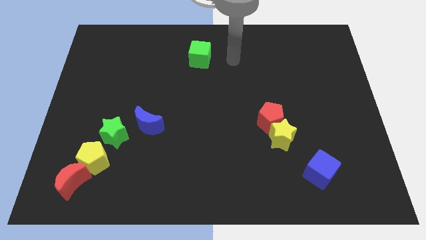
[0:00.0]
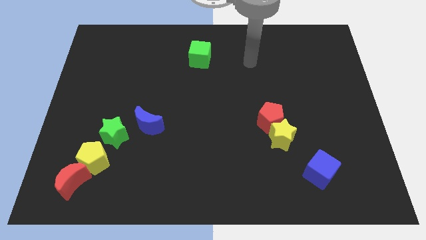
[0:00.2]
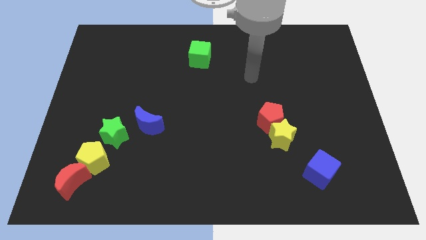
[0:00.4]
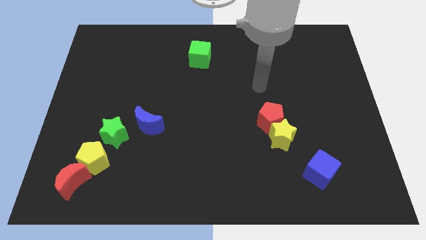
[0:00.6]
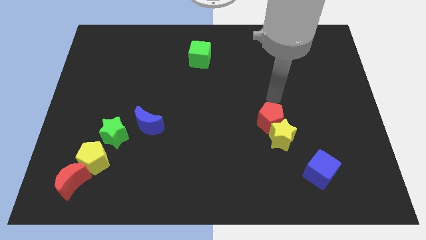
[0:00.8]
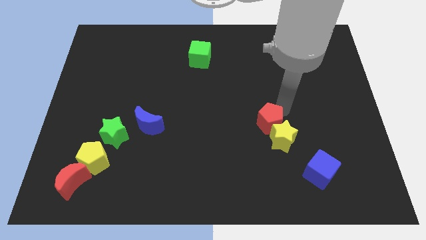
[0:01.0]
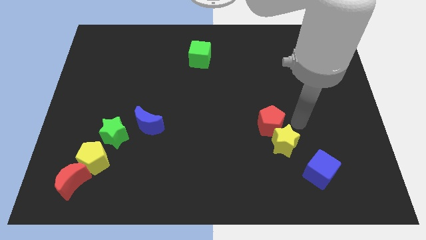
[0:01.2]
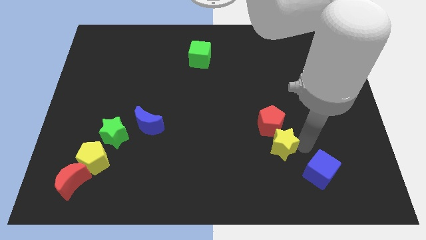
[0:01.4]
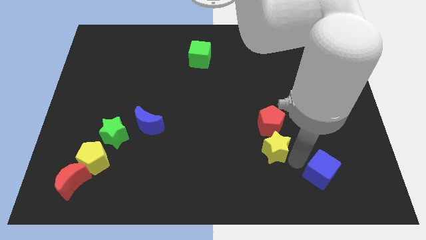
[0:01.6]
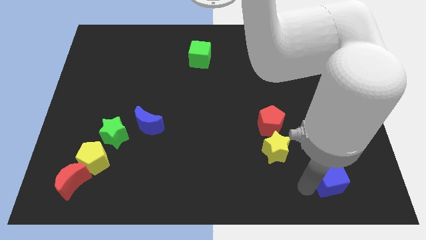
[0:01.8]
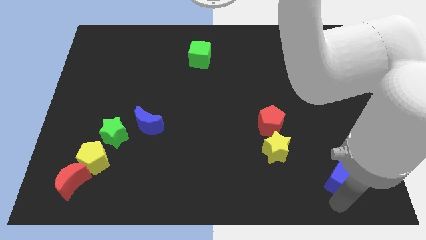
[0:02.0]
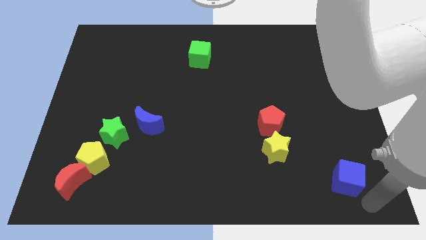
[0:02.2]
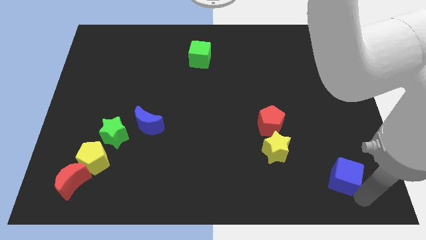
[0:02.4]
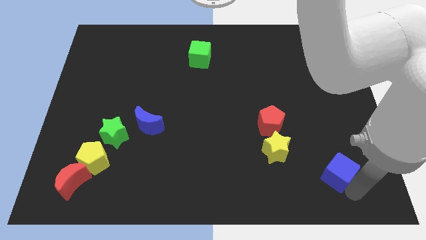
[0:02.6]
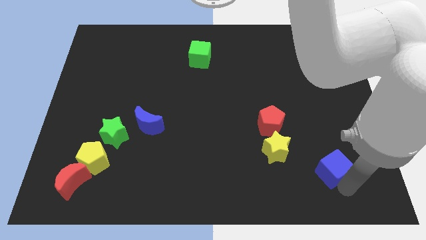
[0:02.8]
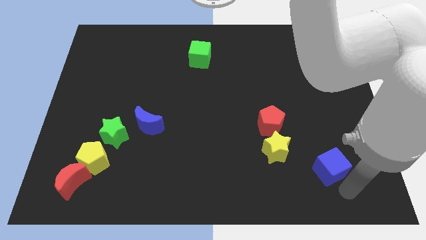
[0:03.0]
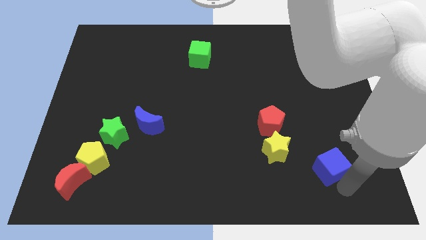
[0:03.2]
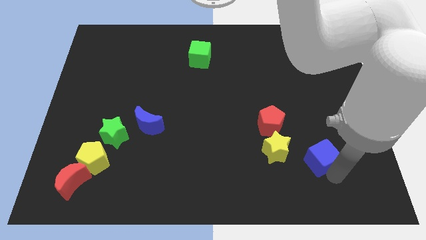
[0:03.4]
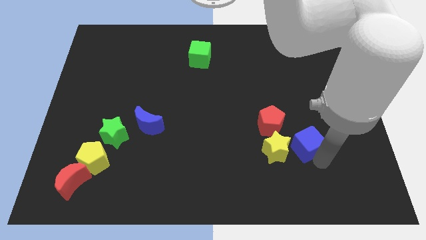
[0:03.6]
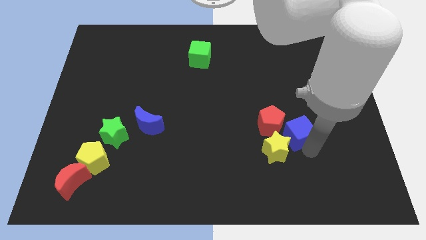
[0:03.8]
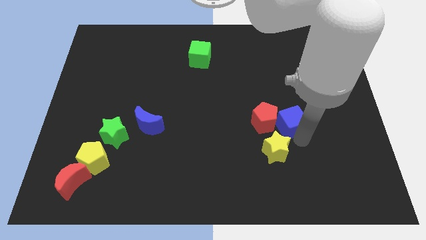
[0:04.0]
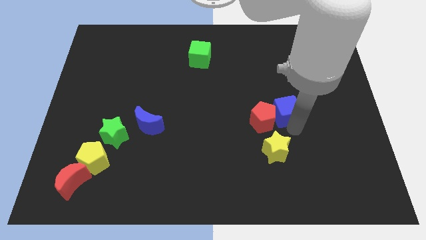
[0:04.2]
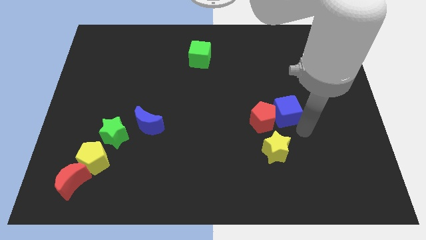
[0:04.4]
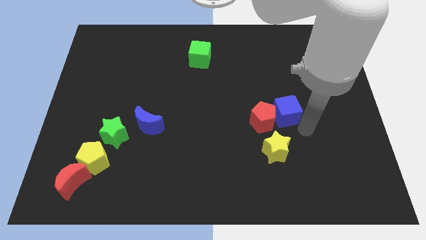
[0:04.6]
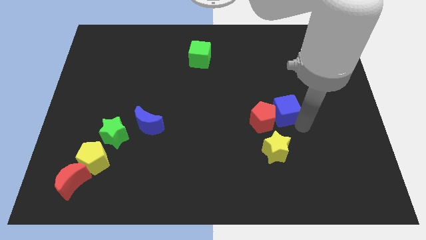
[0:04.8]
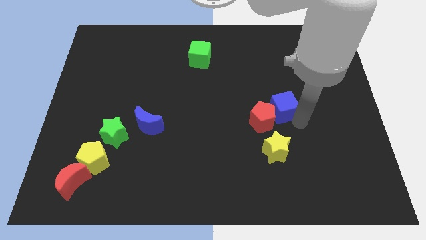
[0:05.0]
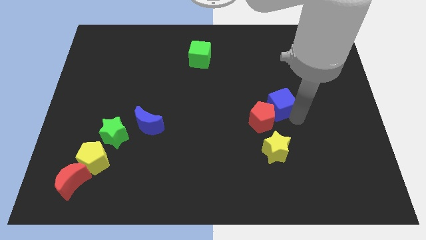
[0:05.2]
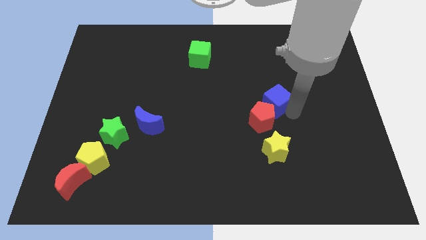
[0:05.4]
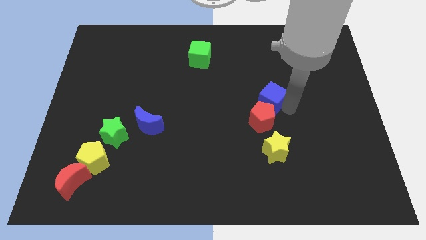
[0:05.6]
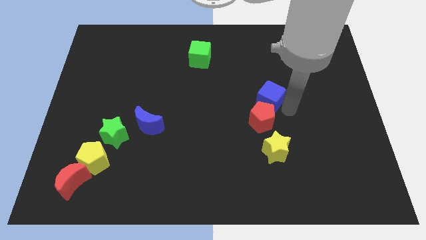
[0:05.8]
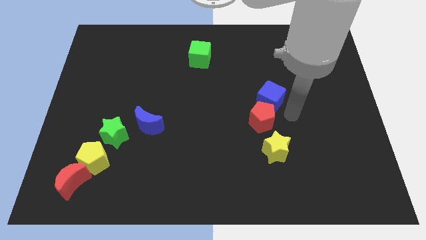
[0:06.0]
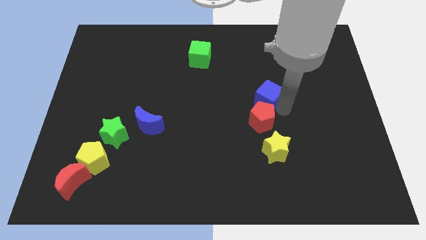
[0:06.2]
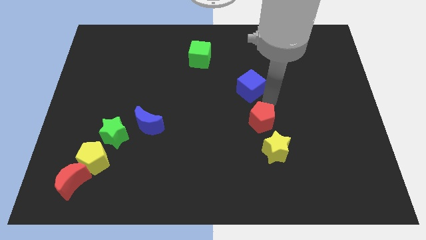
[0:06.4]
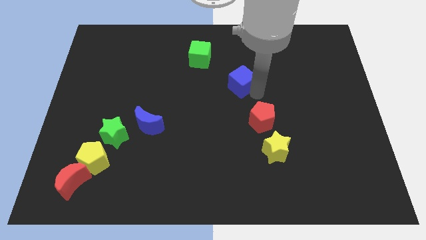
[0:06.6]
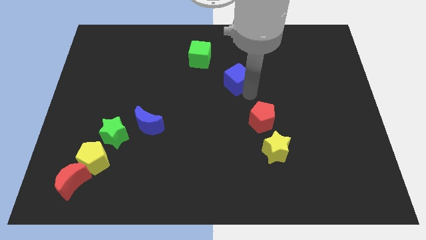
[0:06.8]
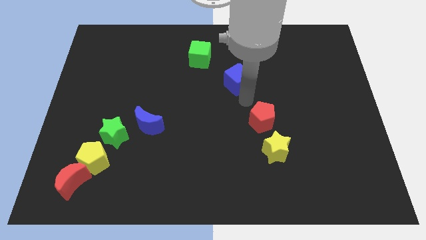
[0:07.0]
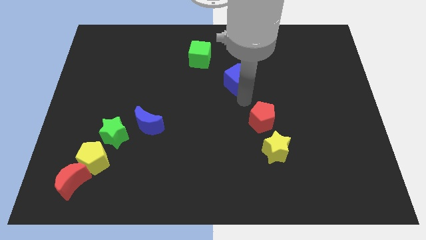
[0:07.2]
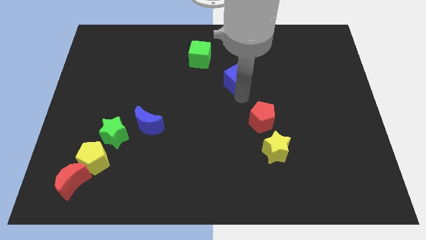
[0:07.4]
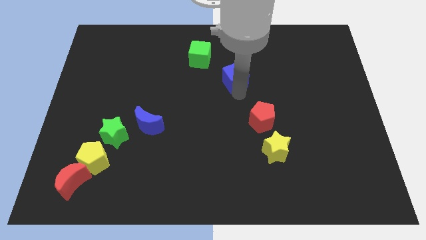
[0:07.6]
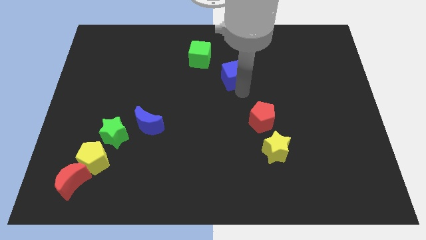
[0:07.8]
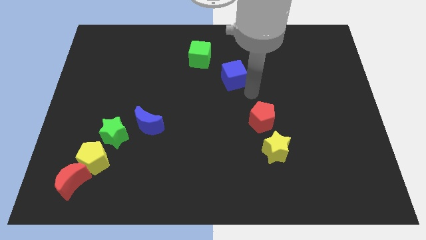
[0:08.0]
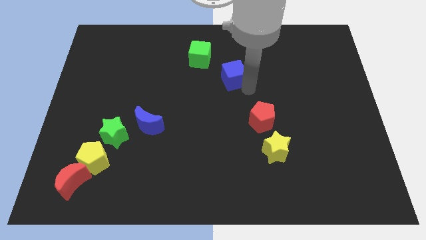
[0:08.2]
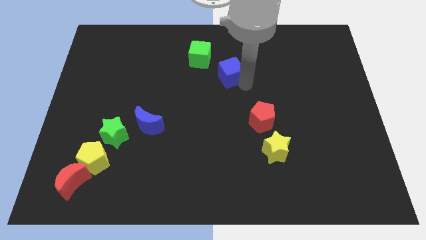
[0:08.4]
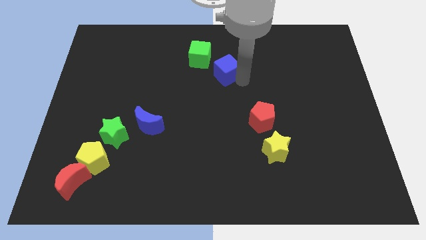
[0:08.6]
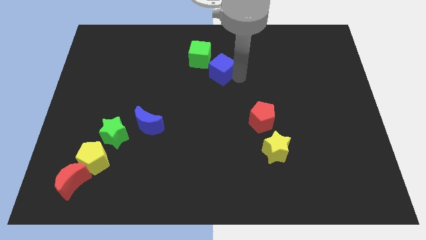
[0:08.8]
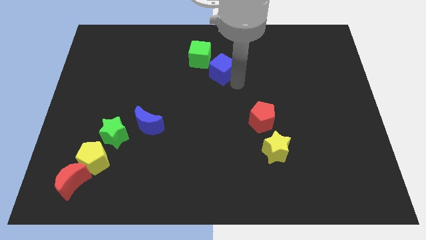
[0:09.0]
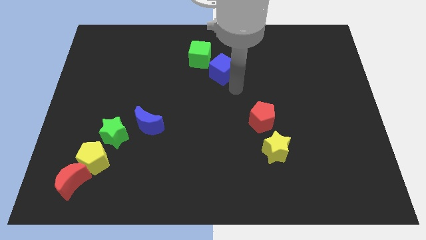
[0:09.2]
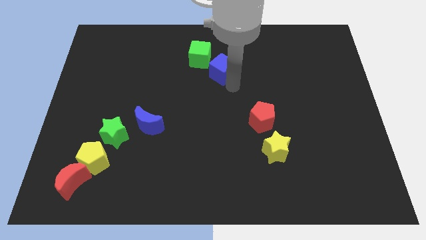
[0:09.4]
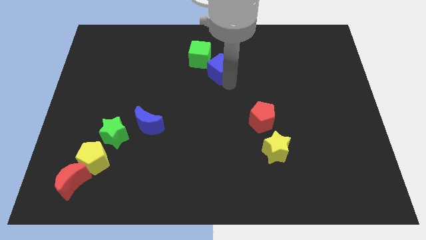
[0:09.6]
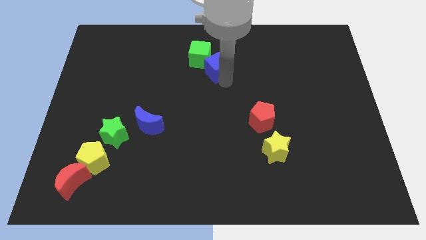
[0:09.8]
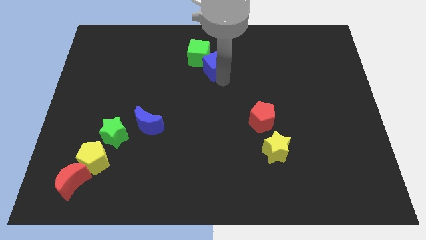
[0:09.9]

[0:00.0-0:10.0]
put the blue cube next to the green cube

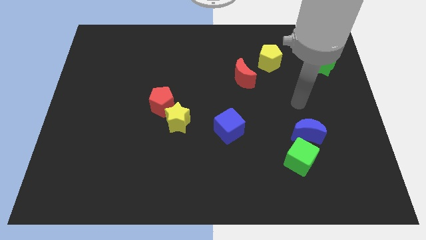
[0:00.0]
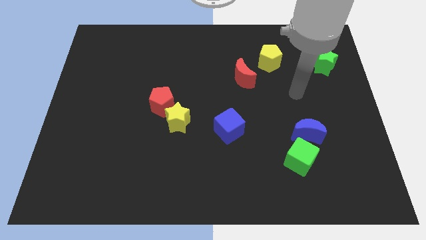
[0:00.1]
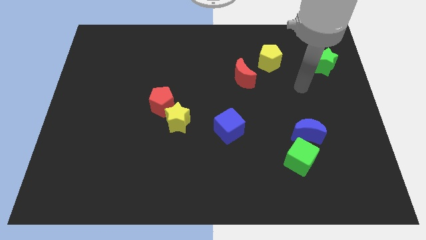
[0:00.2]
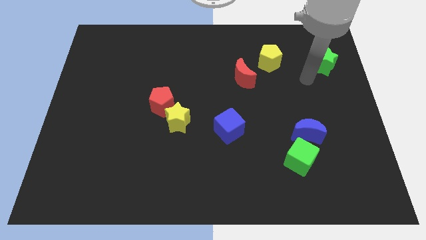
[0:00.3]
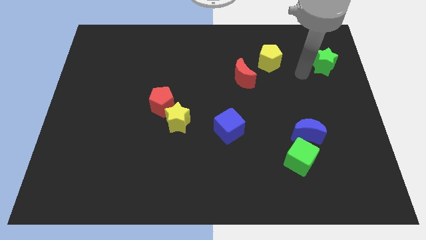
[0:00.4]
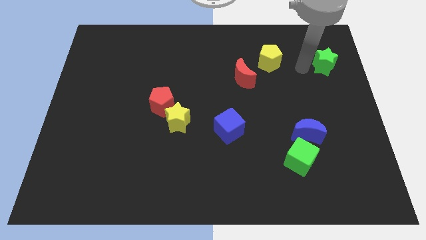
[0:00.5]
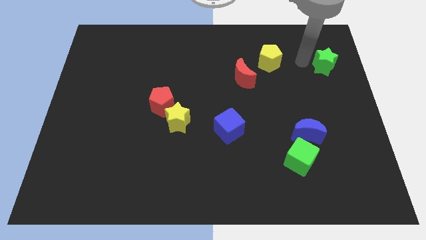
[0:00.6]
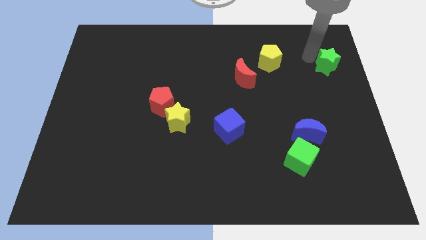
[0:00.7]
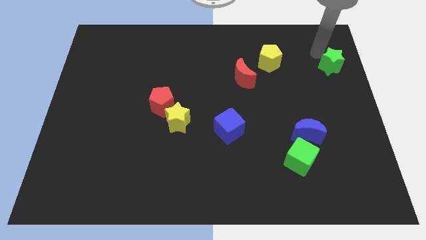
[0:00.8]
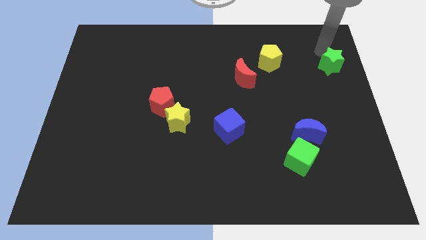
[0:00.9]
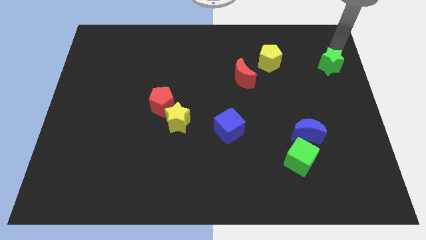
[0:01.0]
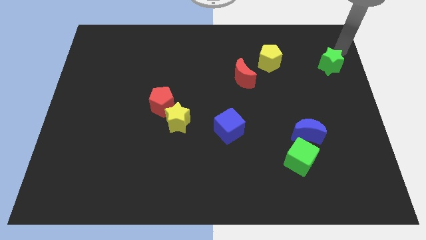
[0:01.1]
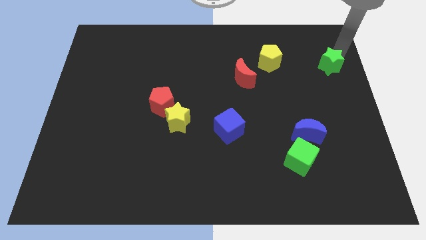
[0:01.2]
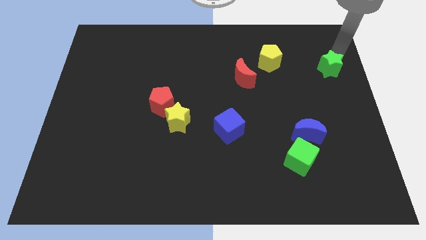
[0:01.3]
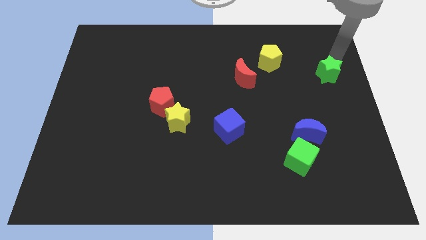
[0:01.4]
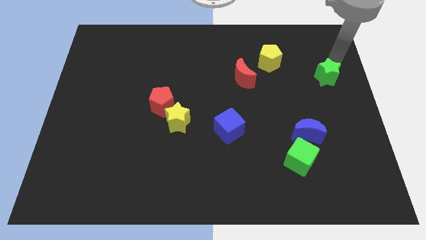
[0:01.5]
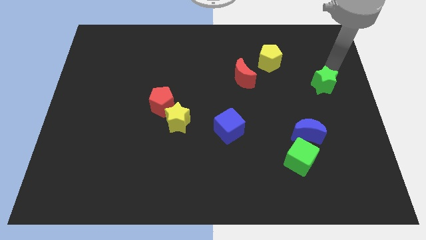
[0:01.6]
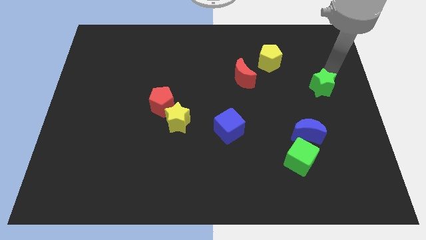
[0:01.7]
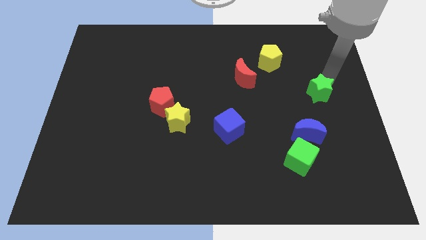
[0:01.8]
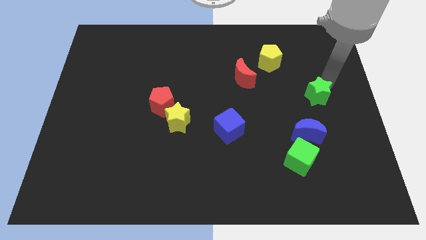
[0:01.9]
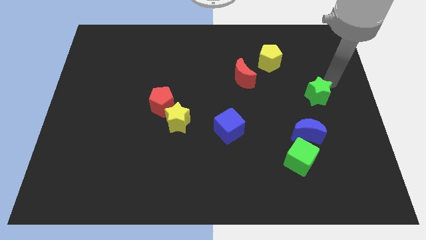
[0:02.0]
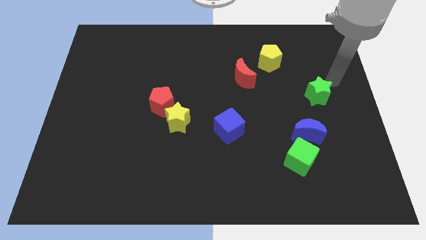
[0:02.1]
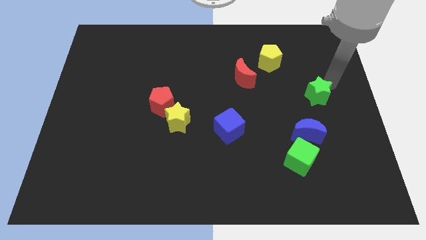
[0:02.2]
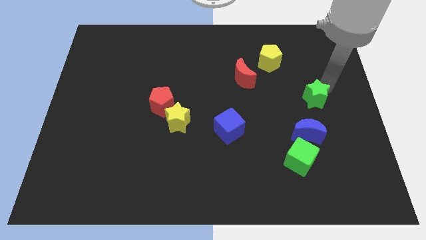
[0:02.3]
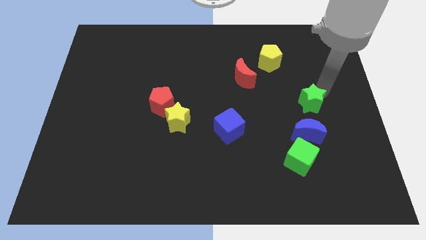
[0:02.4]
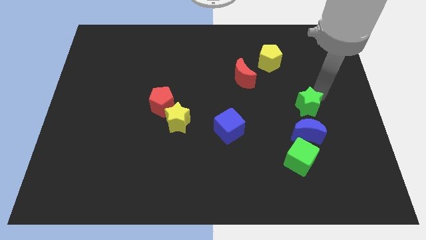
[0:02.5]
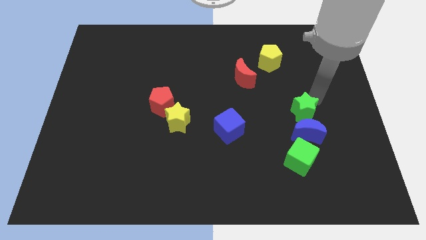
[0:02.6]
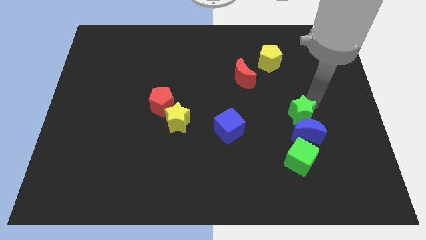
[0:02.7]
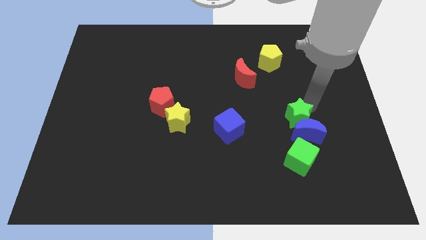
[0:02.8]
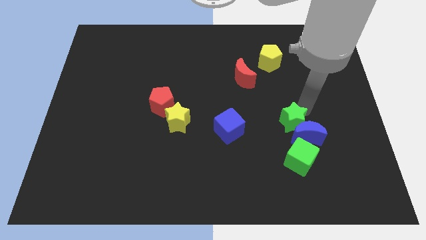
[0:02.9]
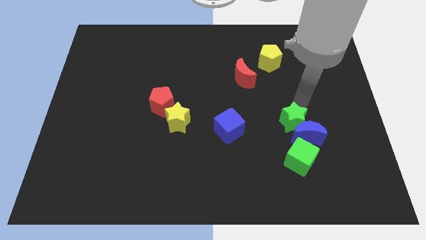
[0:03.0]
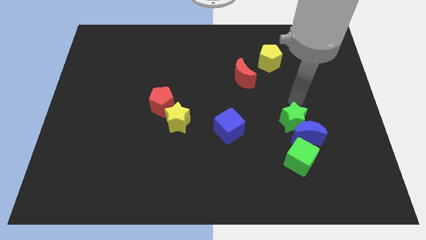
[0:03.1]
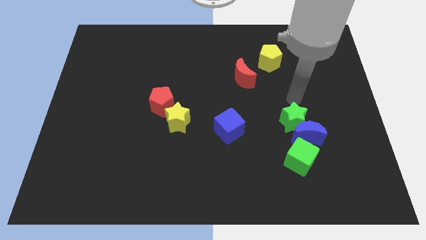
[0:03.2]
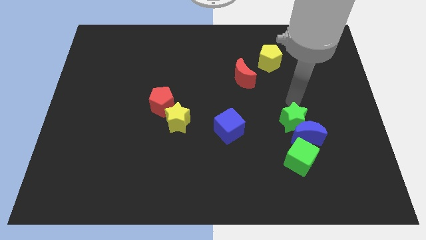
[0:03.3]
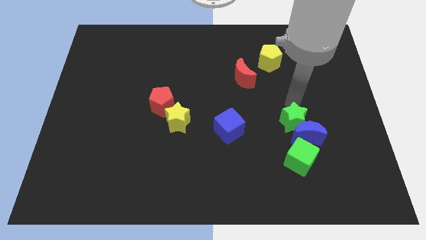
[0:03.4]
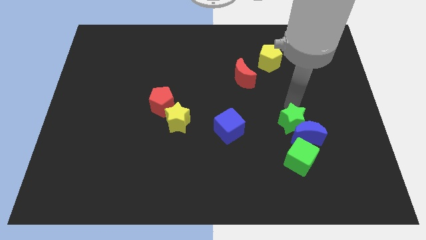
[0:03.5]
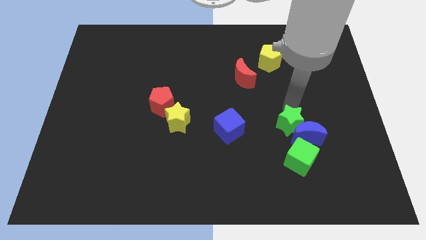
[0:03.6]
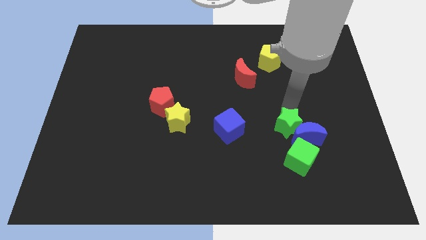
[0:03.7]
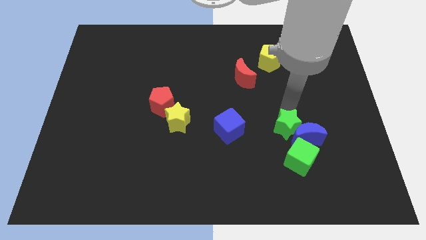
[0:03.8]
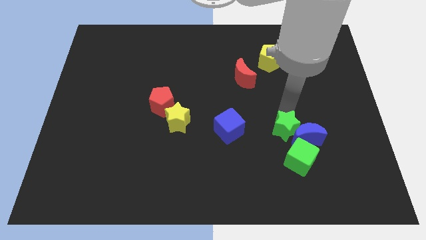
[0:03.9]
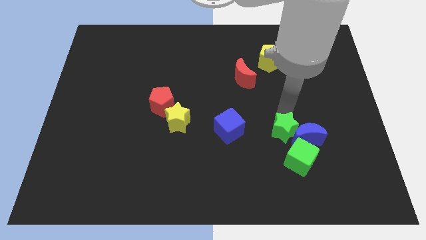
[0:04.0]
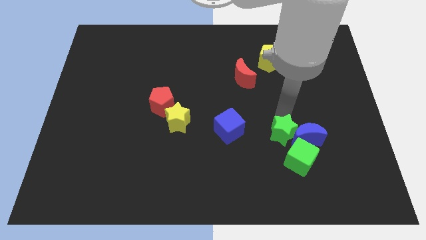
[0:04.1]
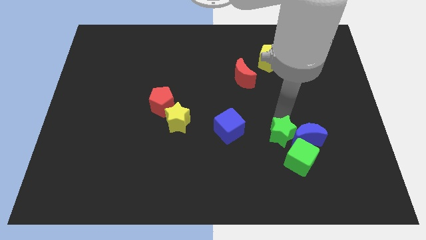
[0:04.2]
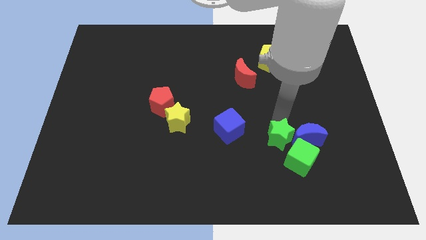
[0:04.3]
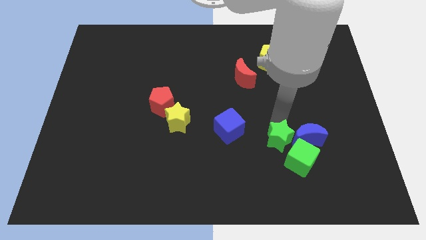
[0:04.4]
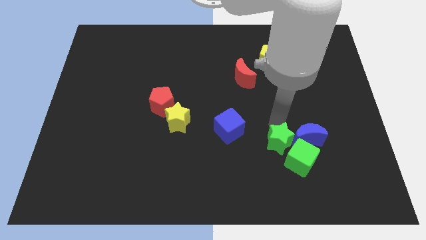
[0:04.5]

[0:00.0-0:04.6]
move the green star close to the green cube
